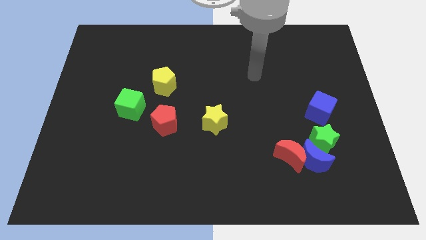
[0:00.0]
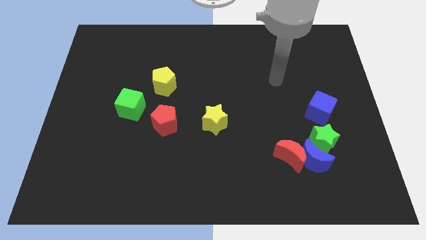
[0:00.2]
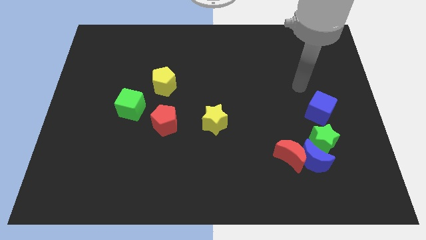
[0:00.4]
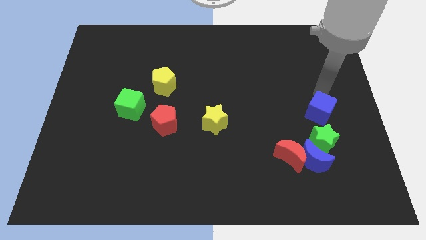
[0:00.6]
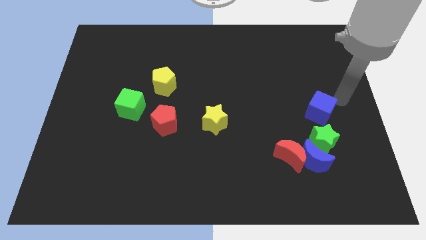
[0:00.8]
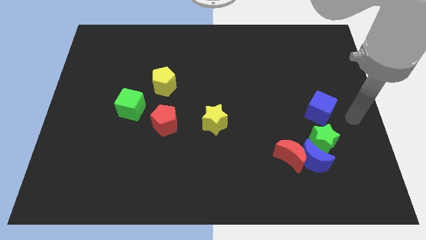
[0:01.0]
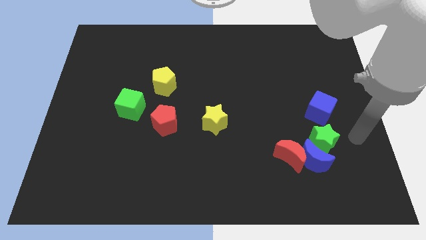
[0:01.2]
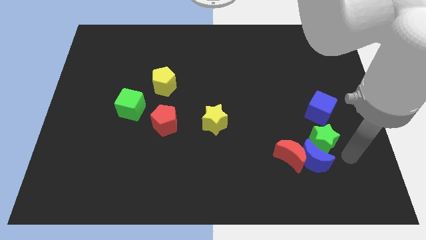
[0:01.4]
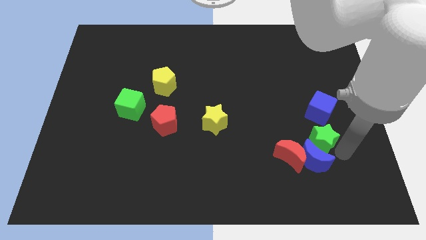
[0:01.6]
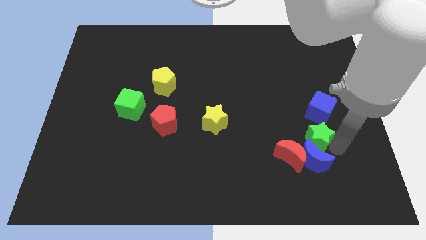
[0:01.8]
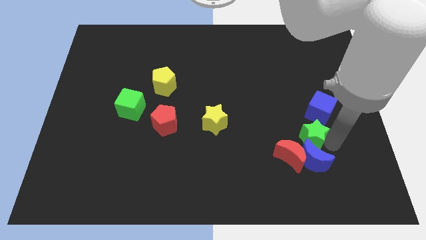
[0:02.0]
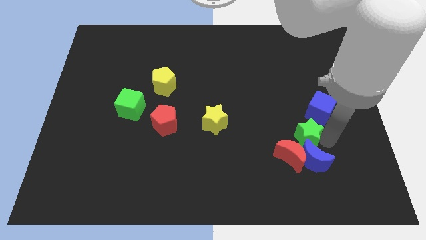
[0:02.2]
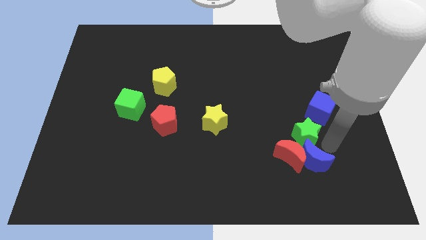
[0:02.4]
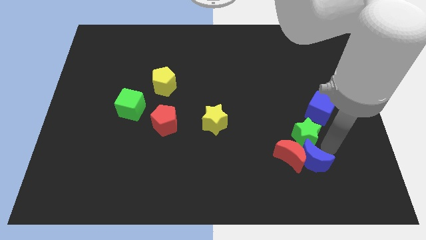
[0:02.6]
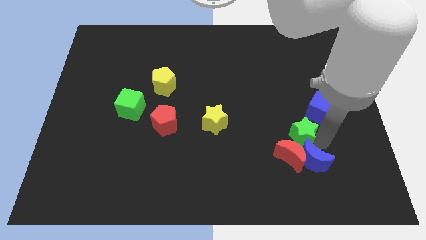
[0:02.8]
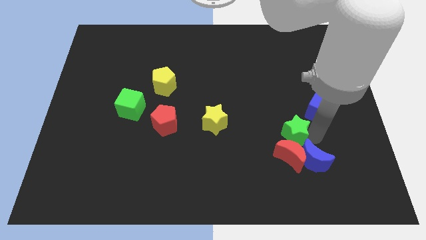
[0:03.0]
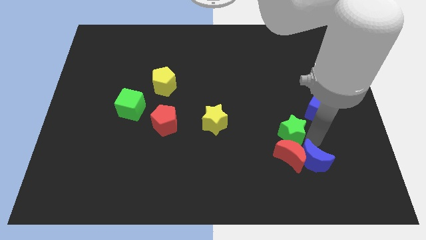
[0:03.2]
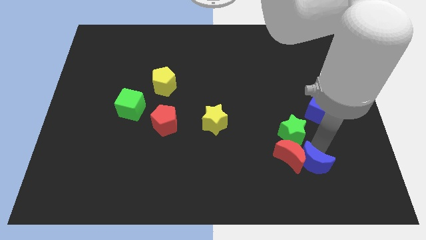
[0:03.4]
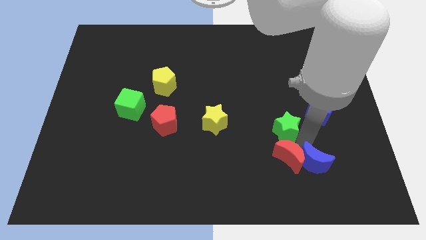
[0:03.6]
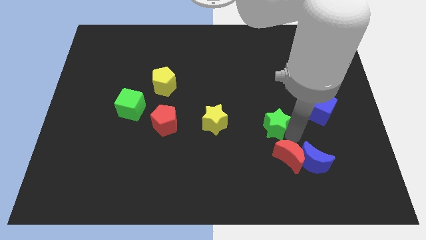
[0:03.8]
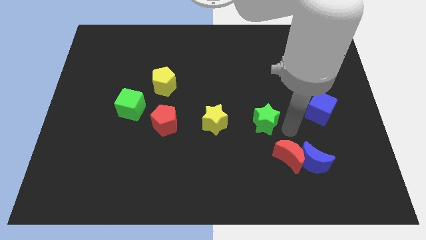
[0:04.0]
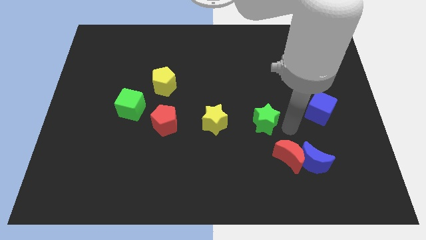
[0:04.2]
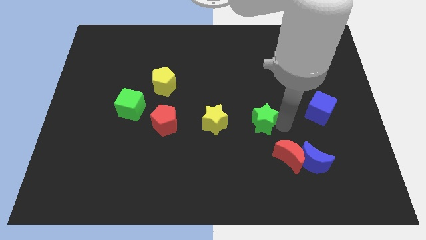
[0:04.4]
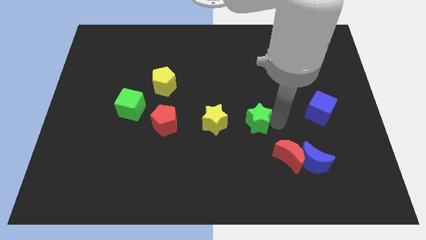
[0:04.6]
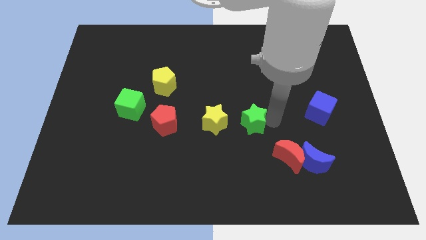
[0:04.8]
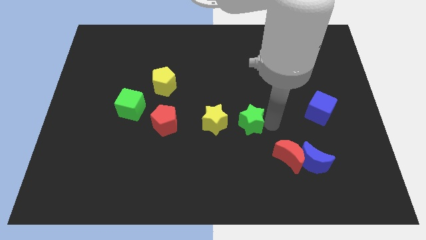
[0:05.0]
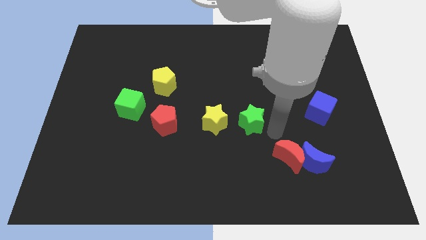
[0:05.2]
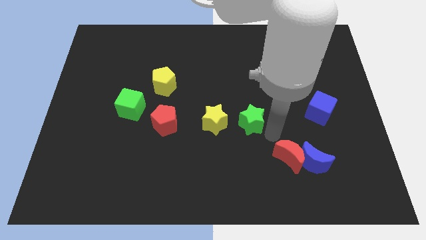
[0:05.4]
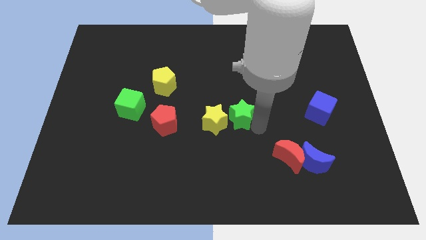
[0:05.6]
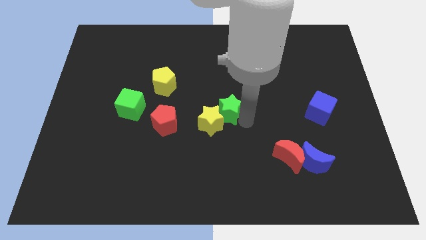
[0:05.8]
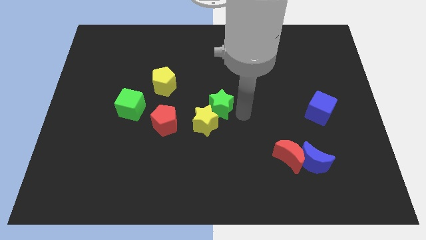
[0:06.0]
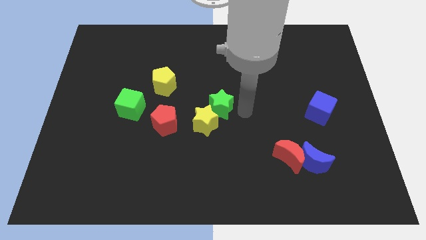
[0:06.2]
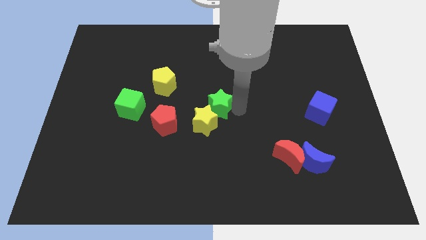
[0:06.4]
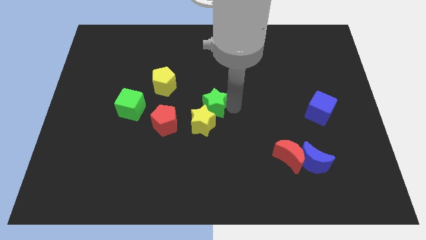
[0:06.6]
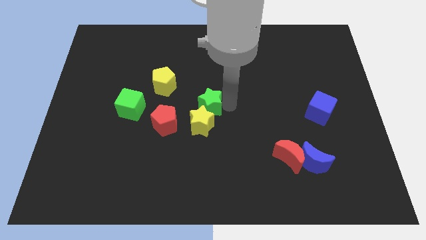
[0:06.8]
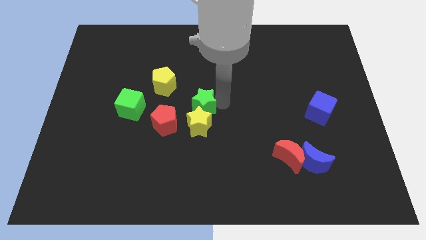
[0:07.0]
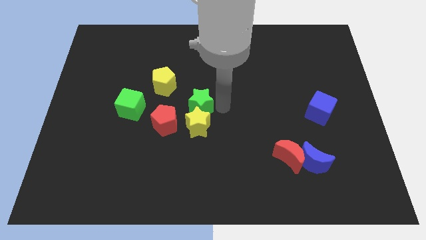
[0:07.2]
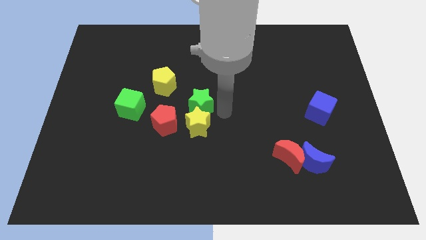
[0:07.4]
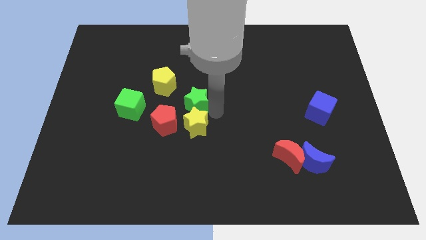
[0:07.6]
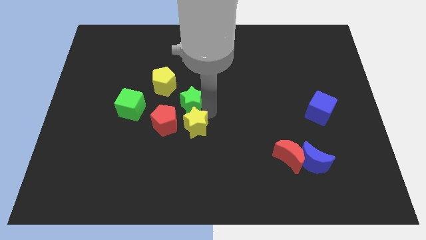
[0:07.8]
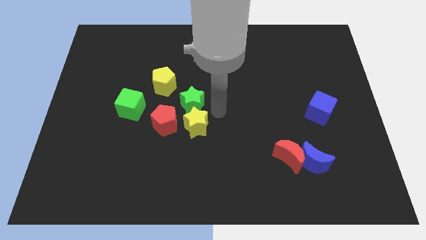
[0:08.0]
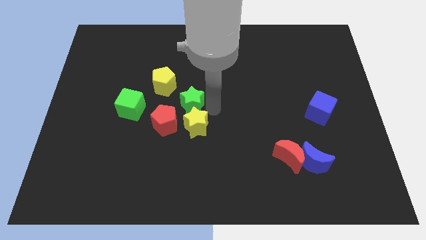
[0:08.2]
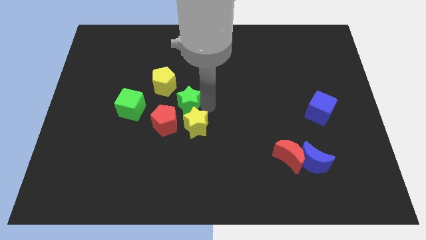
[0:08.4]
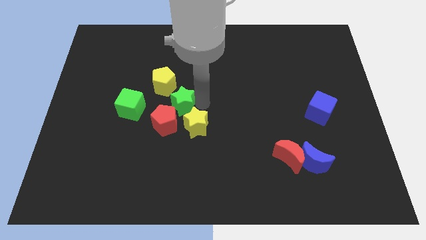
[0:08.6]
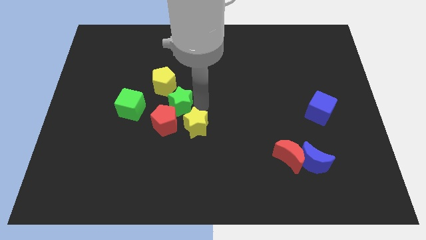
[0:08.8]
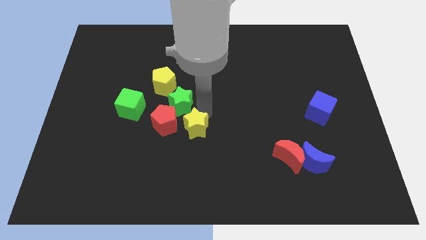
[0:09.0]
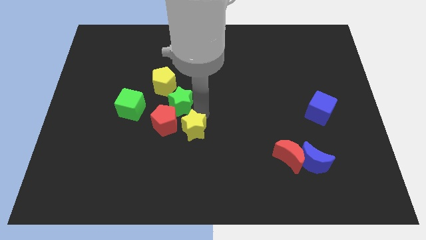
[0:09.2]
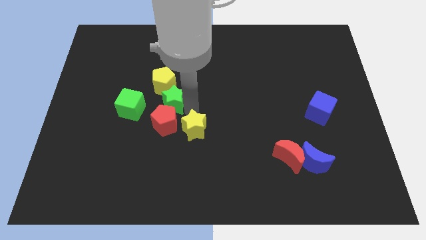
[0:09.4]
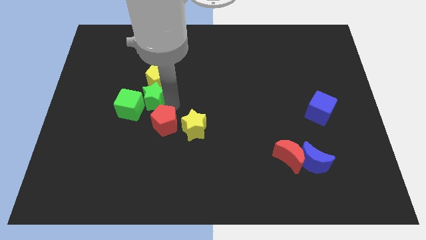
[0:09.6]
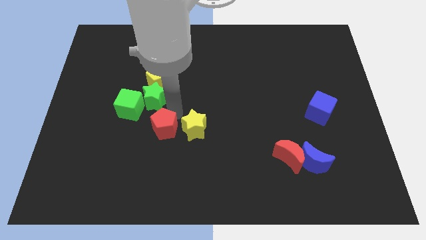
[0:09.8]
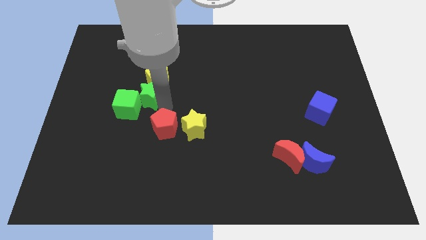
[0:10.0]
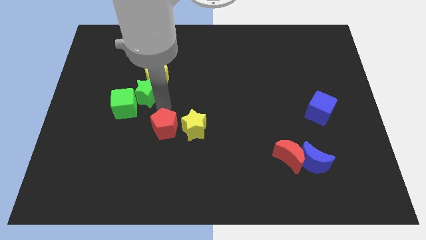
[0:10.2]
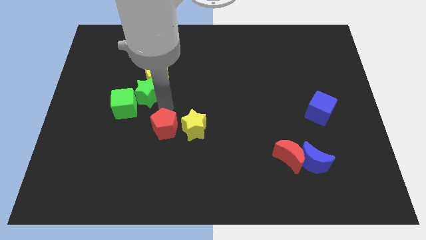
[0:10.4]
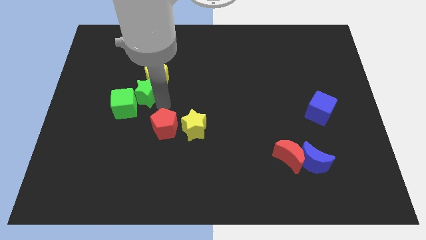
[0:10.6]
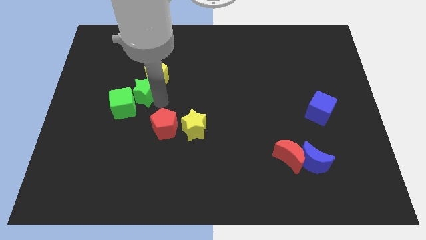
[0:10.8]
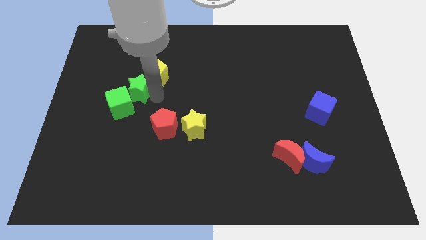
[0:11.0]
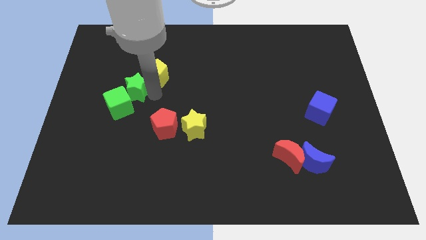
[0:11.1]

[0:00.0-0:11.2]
put the green star left of the yellow pentagon

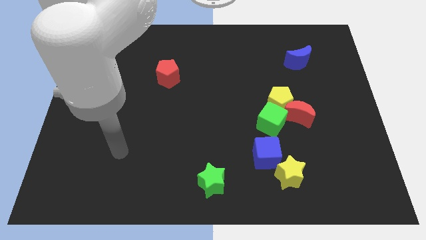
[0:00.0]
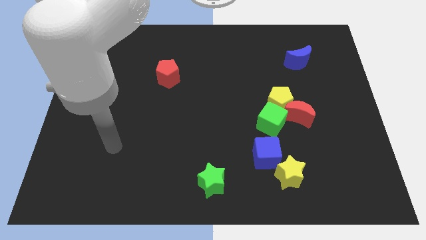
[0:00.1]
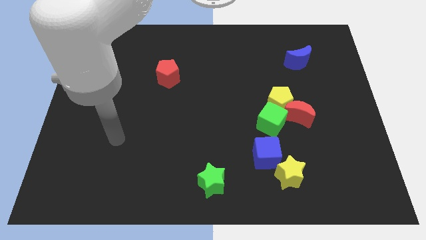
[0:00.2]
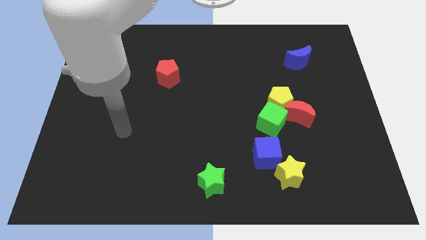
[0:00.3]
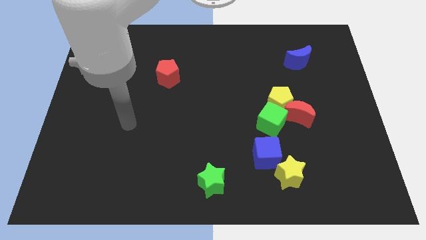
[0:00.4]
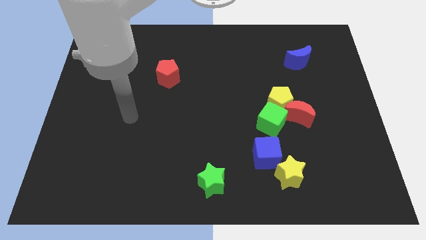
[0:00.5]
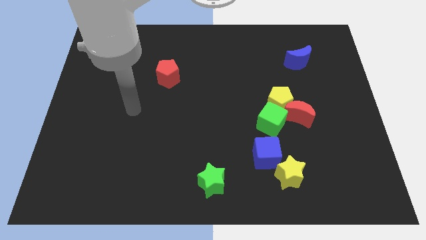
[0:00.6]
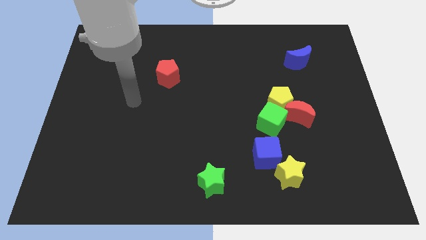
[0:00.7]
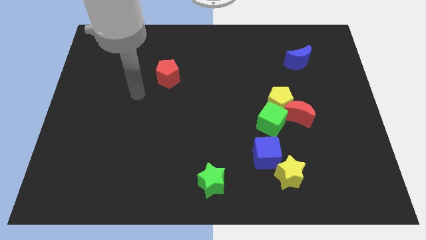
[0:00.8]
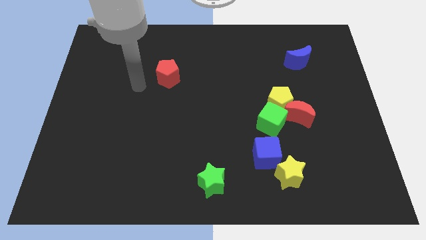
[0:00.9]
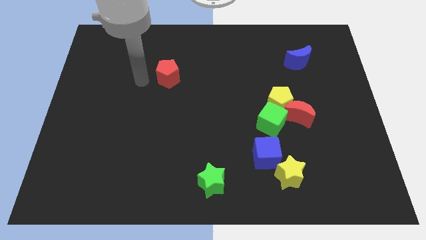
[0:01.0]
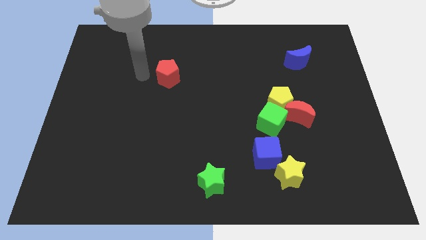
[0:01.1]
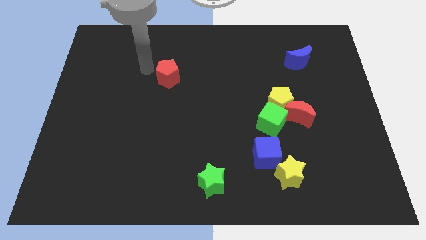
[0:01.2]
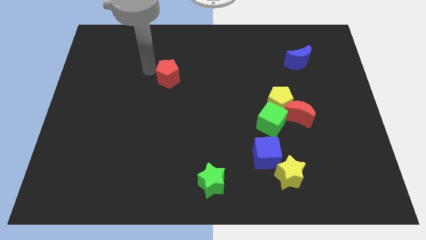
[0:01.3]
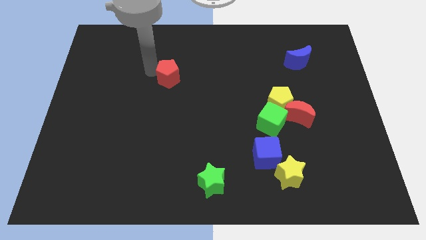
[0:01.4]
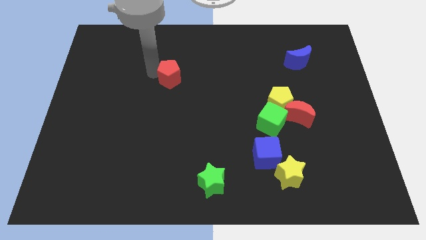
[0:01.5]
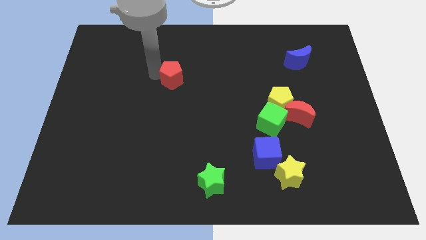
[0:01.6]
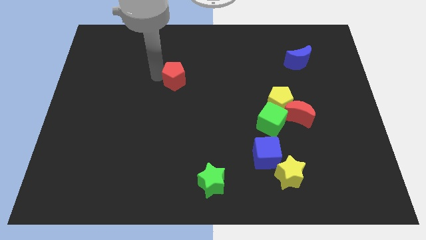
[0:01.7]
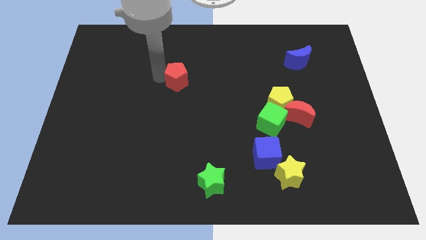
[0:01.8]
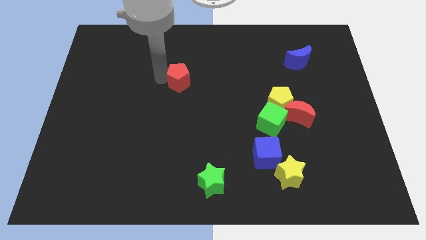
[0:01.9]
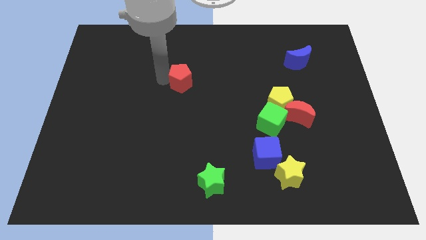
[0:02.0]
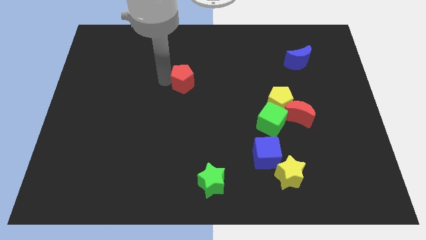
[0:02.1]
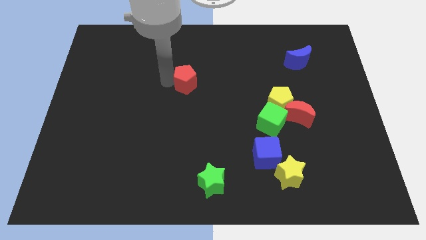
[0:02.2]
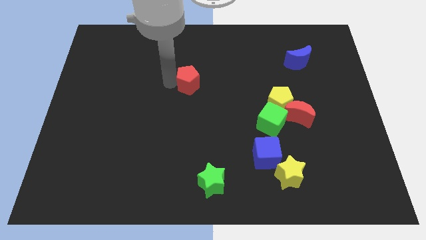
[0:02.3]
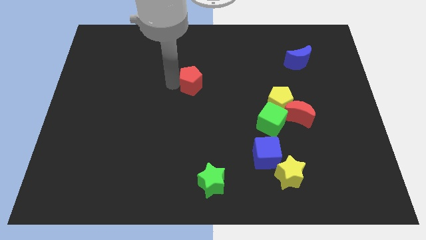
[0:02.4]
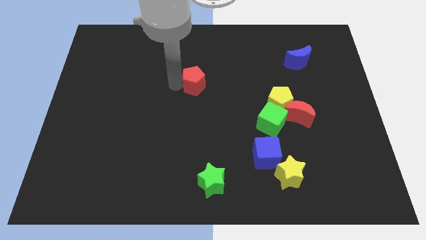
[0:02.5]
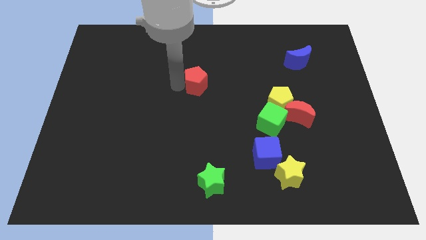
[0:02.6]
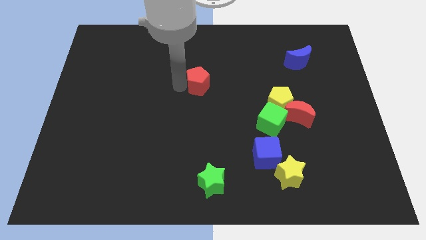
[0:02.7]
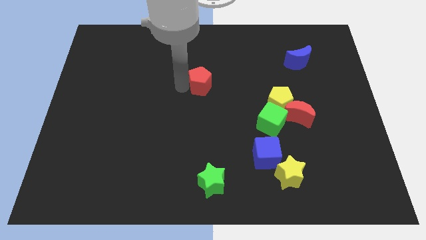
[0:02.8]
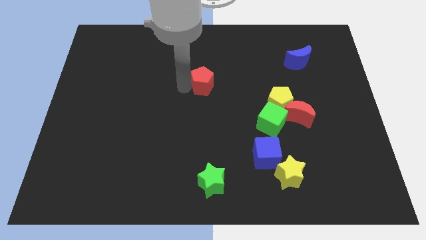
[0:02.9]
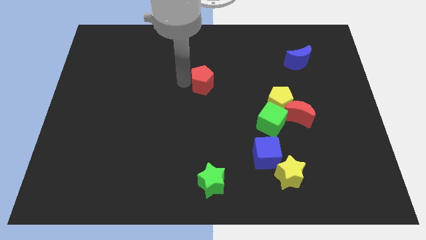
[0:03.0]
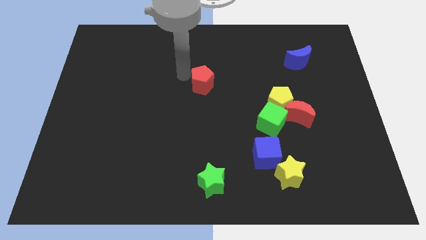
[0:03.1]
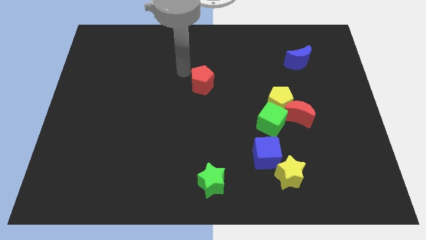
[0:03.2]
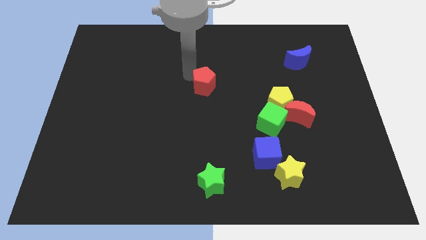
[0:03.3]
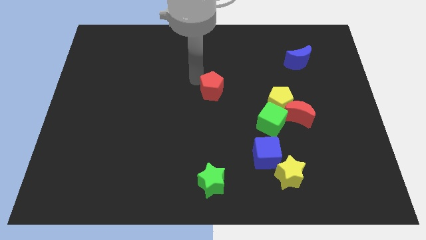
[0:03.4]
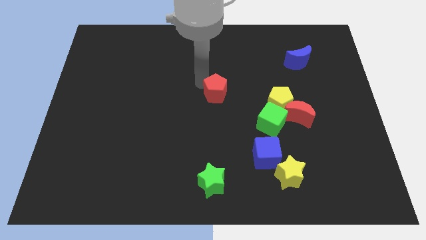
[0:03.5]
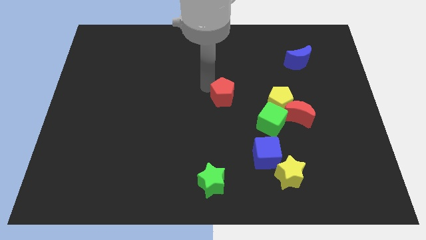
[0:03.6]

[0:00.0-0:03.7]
move the red pentagon to the left of the yellow pentagon
